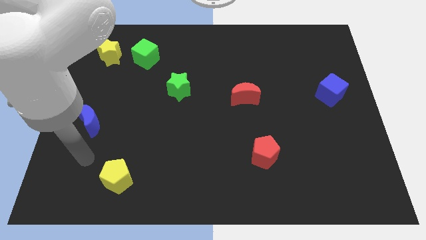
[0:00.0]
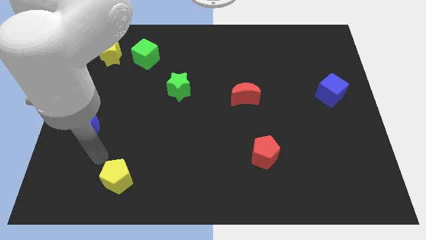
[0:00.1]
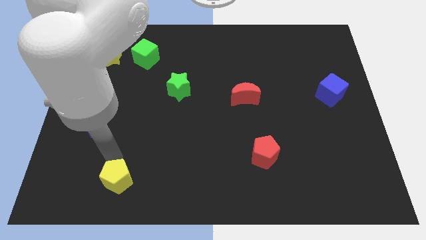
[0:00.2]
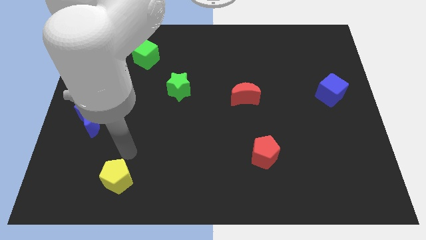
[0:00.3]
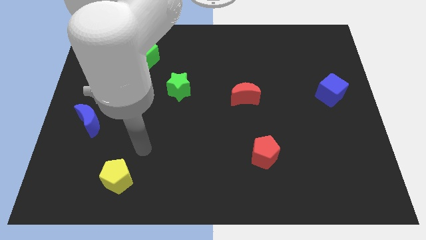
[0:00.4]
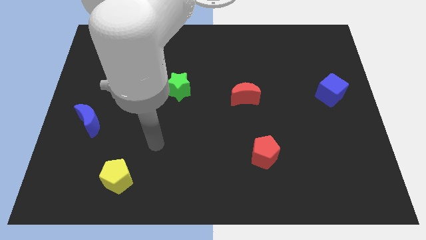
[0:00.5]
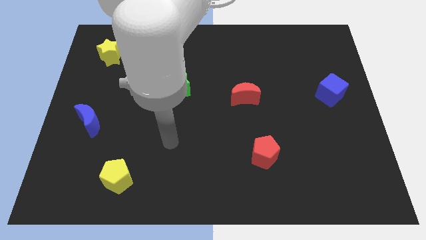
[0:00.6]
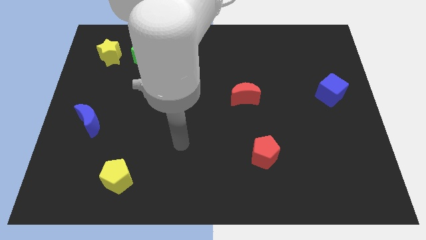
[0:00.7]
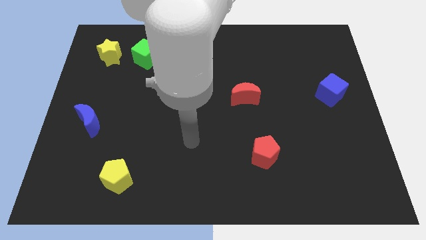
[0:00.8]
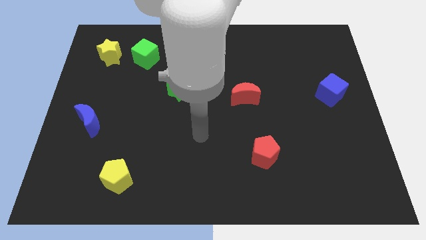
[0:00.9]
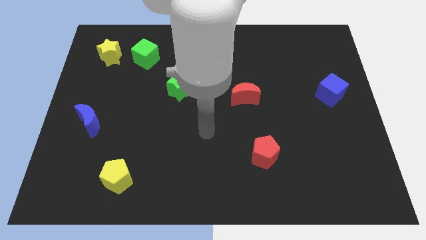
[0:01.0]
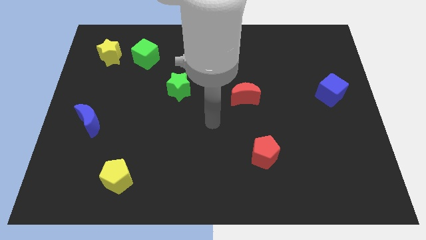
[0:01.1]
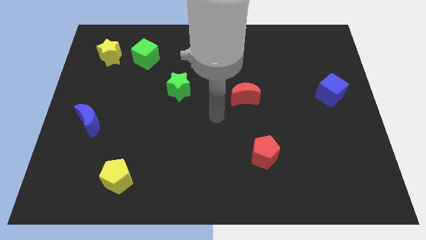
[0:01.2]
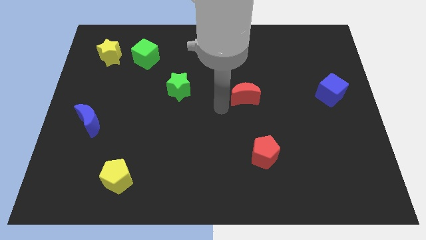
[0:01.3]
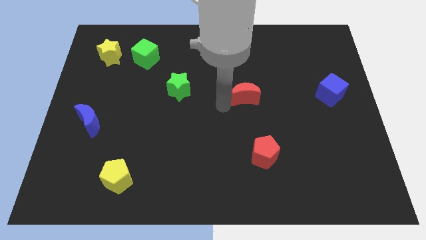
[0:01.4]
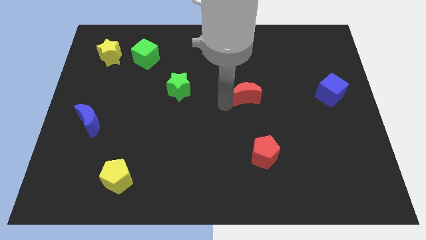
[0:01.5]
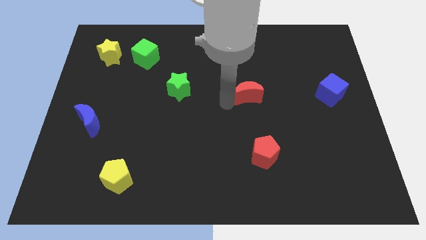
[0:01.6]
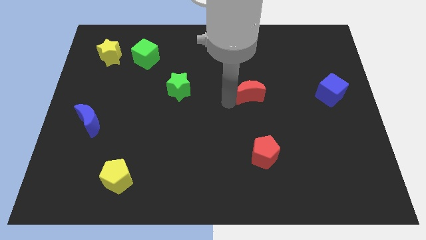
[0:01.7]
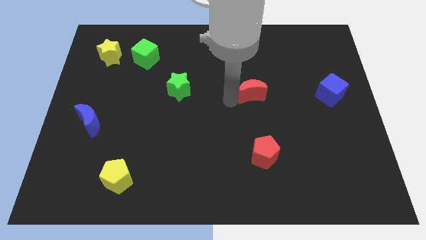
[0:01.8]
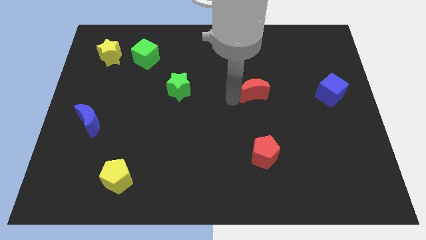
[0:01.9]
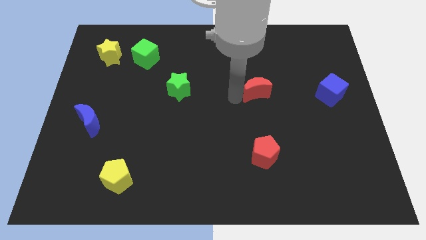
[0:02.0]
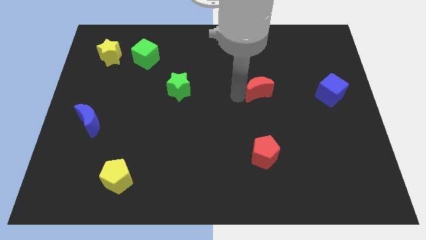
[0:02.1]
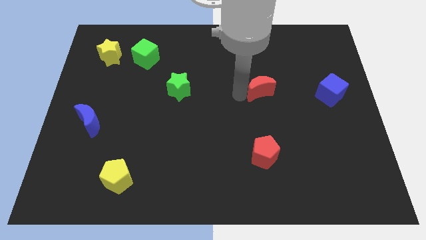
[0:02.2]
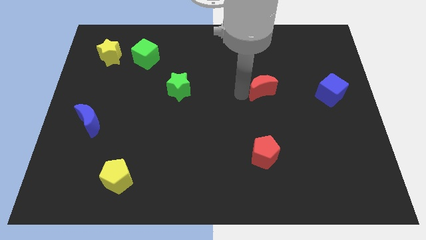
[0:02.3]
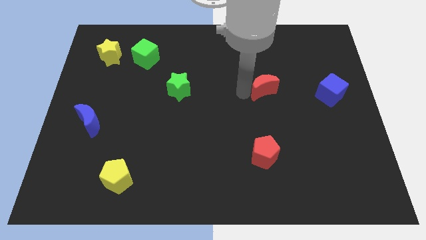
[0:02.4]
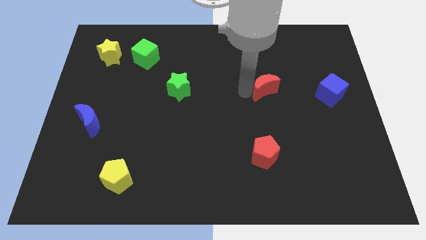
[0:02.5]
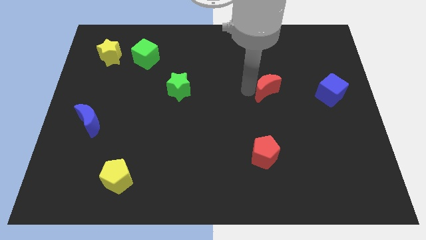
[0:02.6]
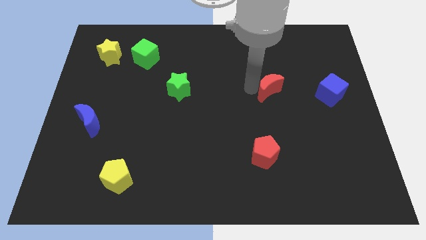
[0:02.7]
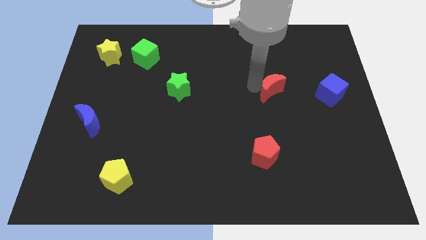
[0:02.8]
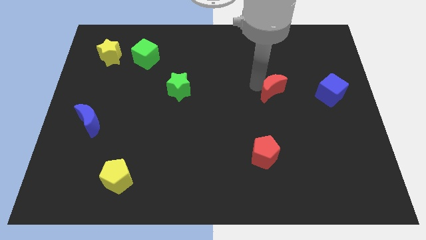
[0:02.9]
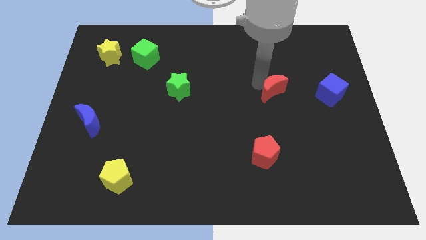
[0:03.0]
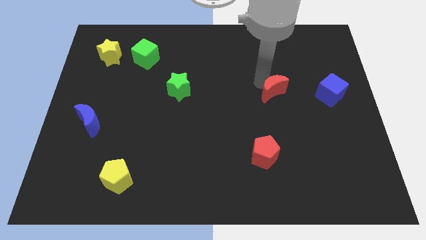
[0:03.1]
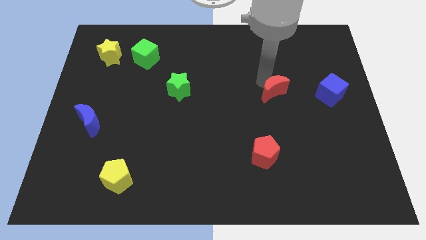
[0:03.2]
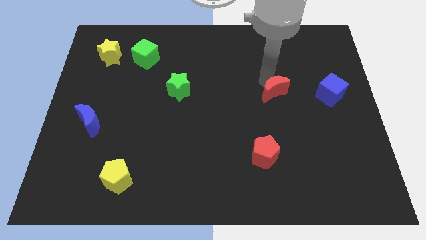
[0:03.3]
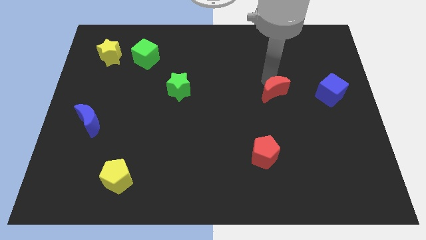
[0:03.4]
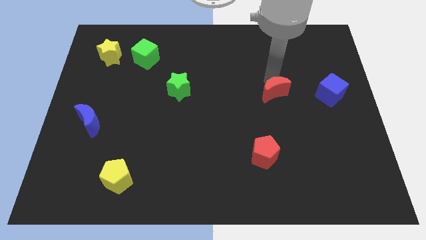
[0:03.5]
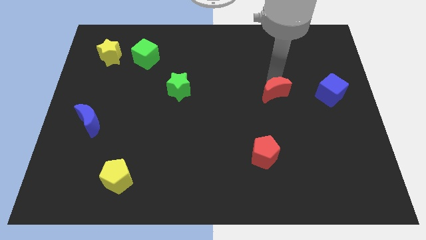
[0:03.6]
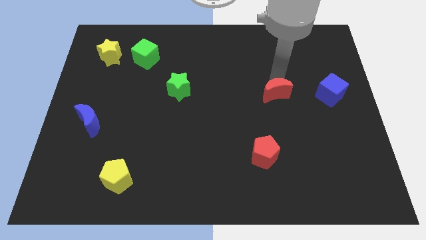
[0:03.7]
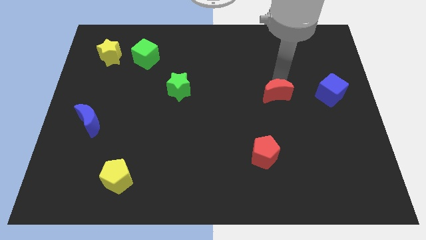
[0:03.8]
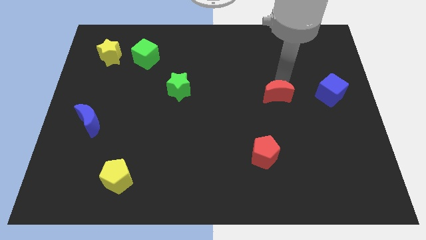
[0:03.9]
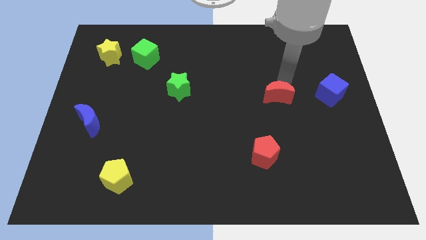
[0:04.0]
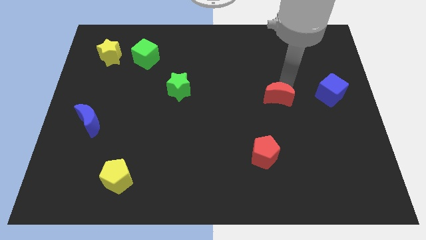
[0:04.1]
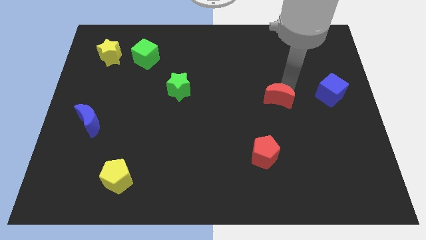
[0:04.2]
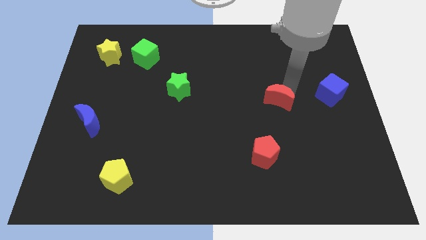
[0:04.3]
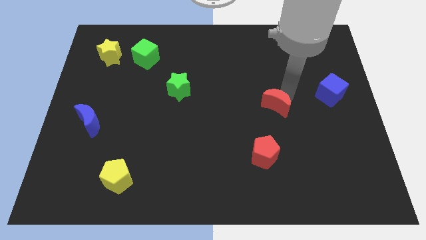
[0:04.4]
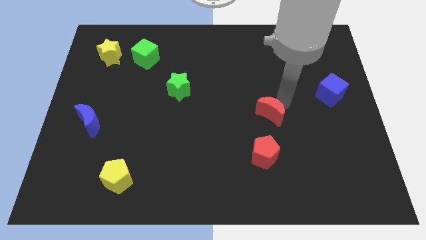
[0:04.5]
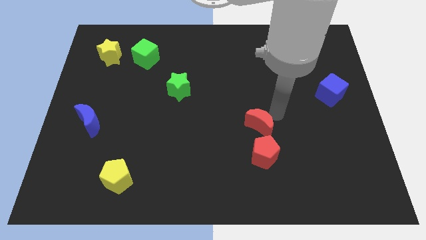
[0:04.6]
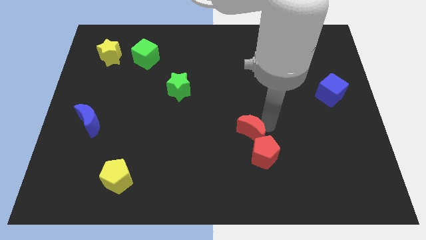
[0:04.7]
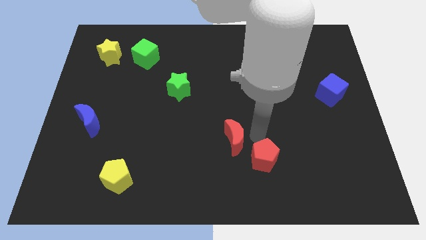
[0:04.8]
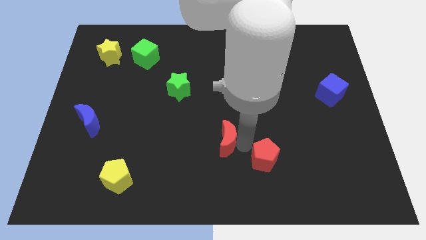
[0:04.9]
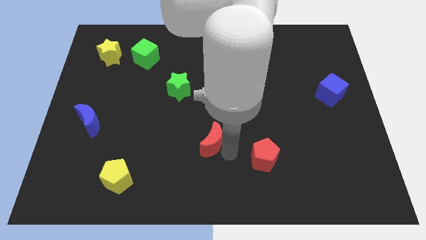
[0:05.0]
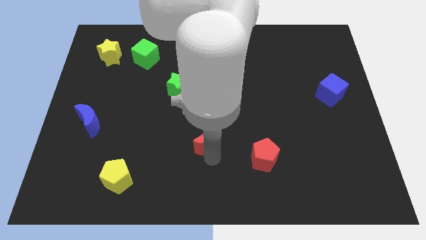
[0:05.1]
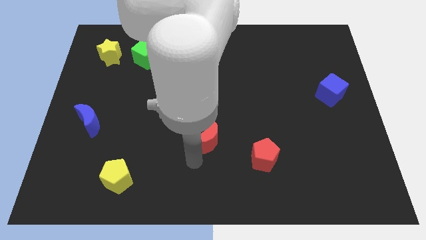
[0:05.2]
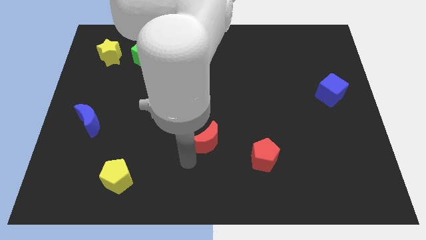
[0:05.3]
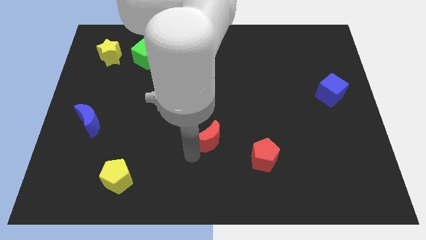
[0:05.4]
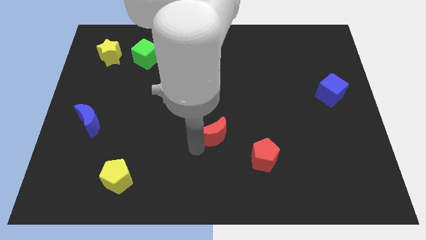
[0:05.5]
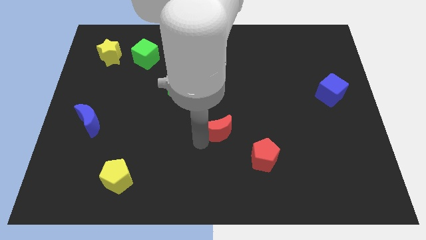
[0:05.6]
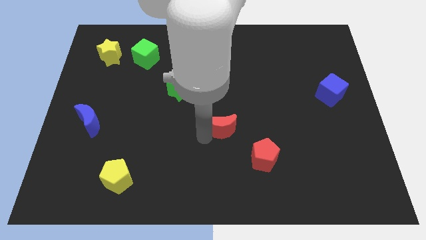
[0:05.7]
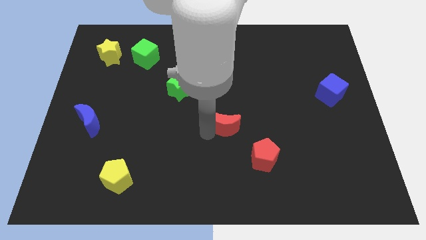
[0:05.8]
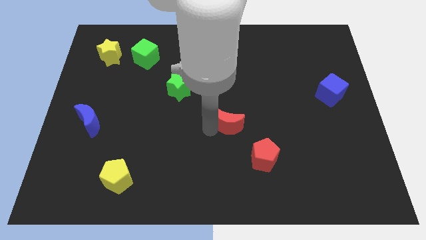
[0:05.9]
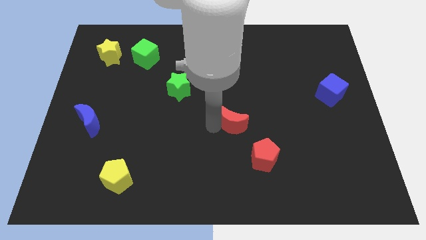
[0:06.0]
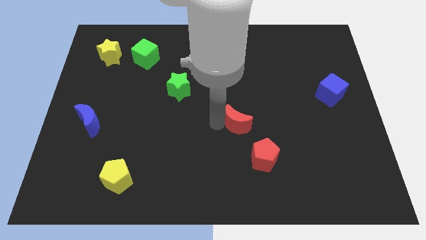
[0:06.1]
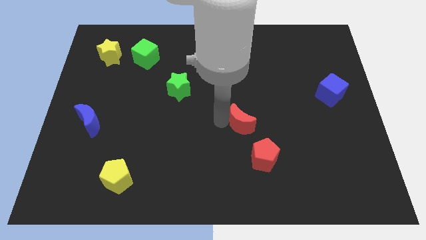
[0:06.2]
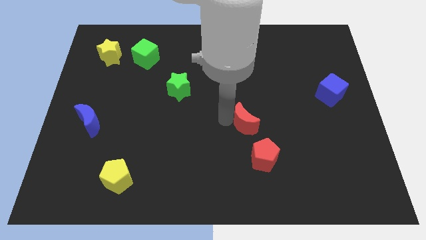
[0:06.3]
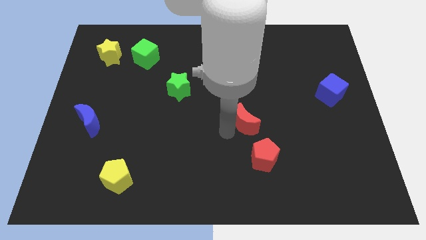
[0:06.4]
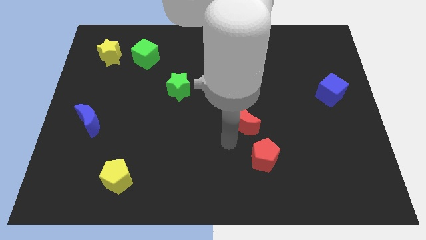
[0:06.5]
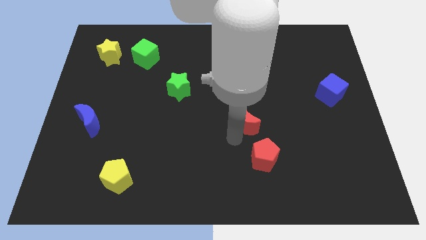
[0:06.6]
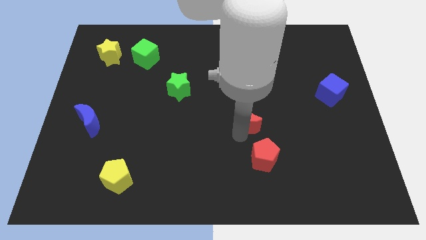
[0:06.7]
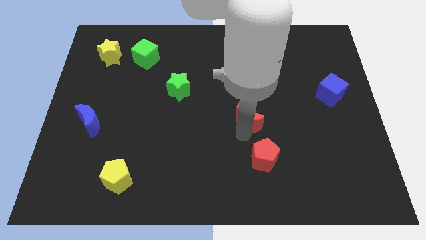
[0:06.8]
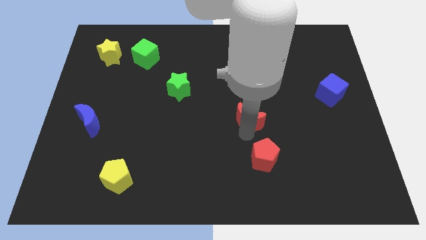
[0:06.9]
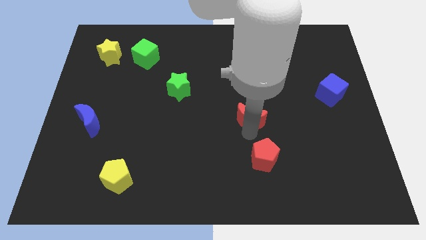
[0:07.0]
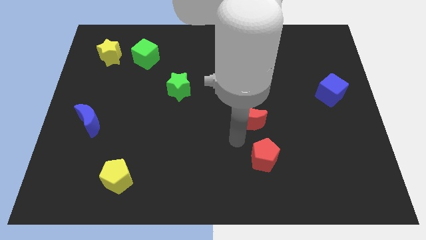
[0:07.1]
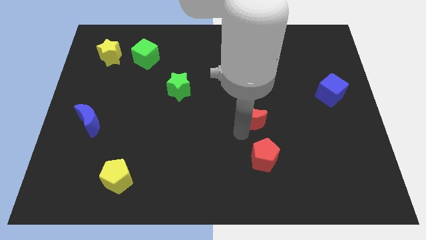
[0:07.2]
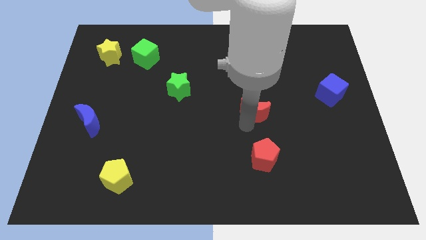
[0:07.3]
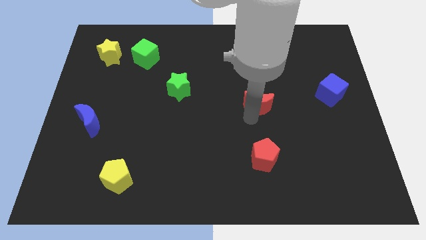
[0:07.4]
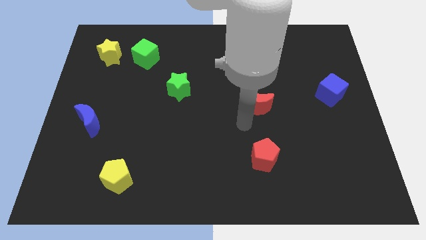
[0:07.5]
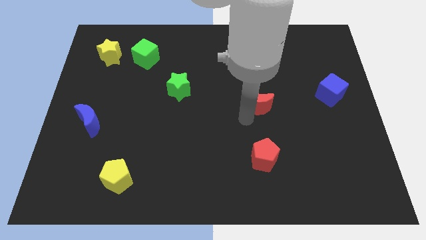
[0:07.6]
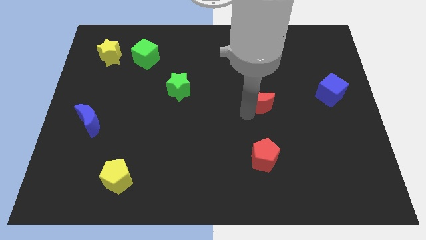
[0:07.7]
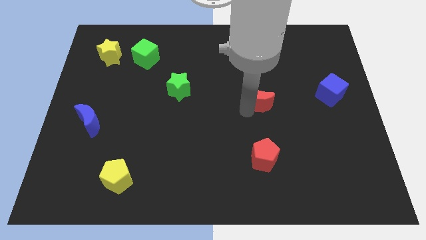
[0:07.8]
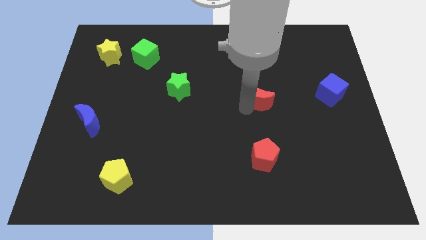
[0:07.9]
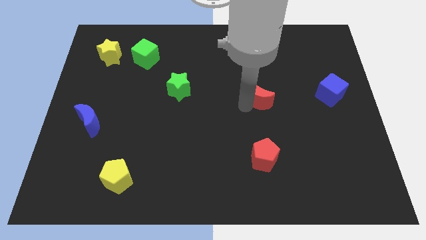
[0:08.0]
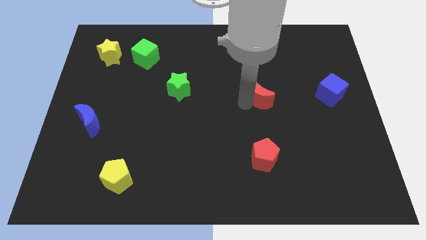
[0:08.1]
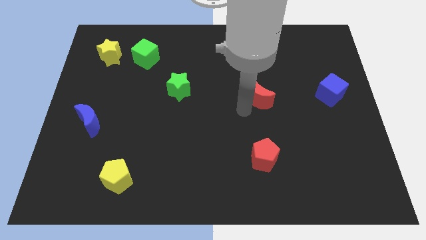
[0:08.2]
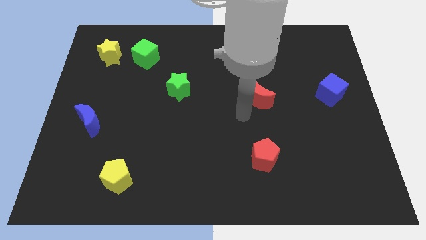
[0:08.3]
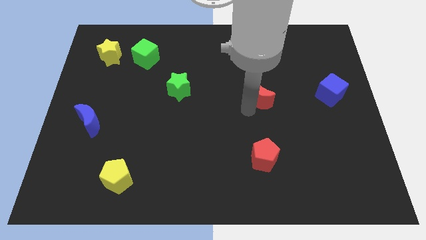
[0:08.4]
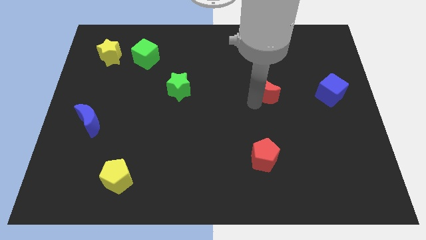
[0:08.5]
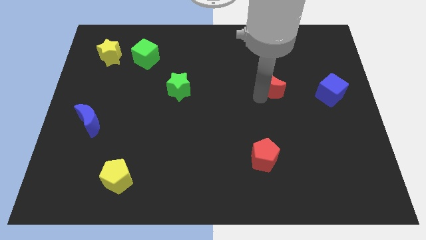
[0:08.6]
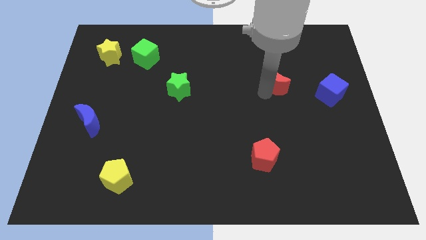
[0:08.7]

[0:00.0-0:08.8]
slide the red moon up and right a little
